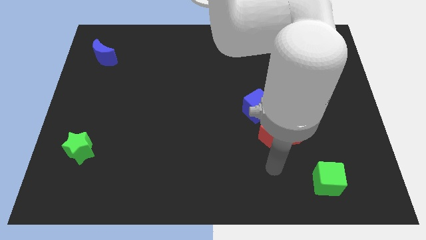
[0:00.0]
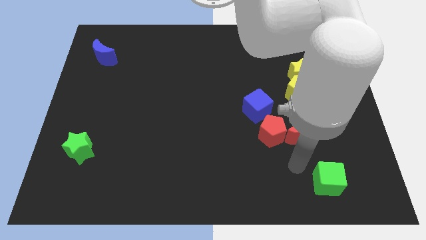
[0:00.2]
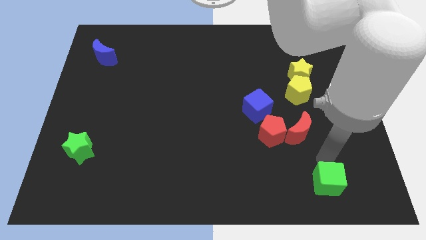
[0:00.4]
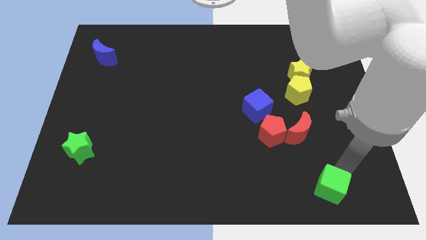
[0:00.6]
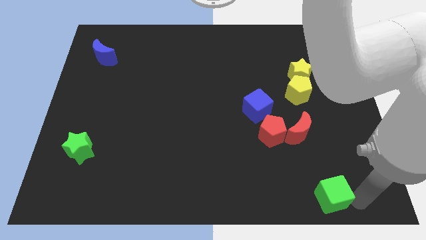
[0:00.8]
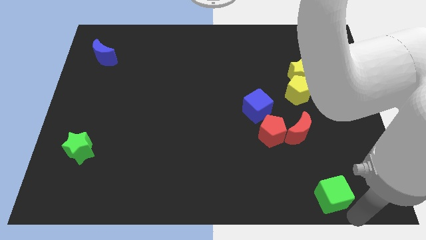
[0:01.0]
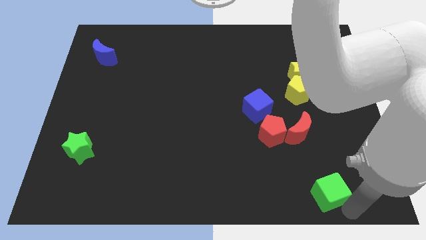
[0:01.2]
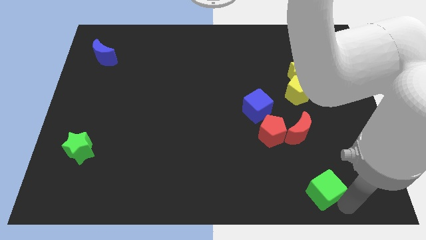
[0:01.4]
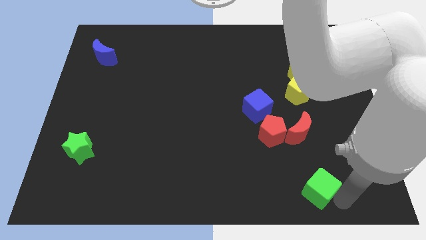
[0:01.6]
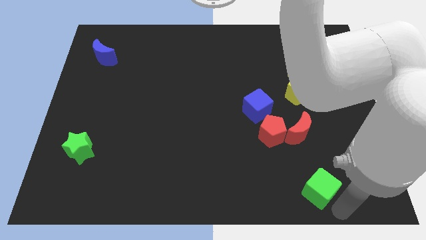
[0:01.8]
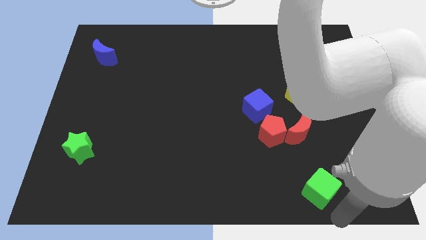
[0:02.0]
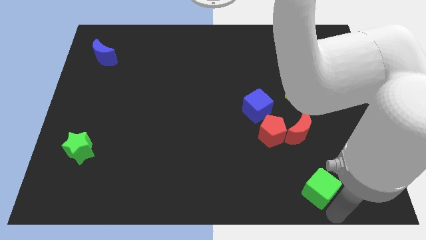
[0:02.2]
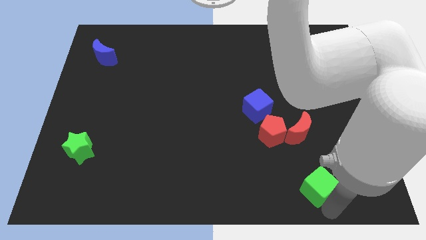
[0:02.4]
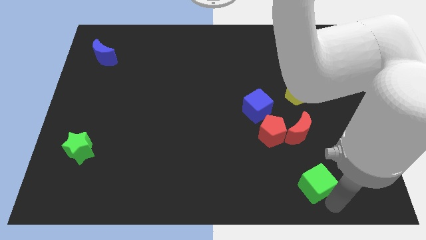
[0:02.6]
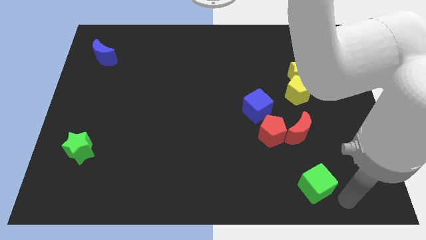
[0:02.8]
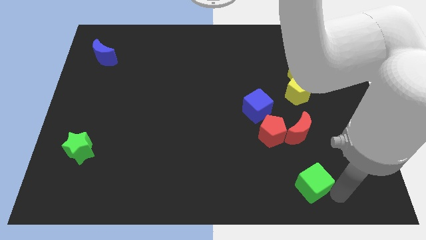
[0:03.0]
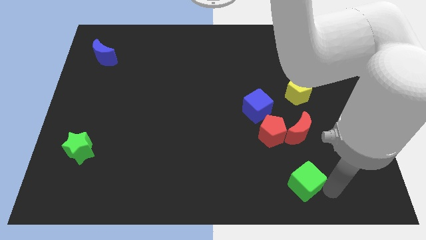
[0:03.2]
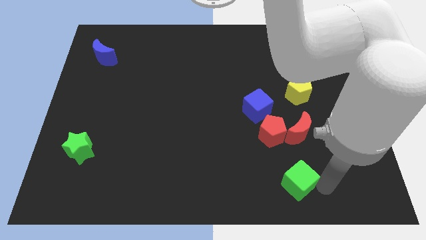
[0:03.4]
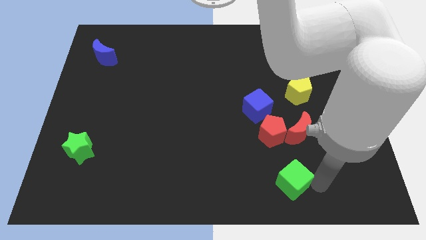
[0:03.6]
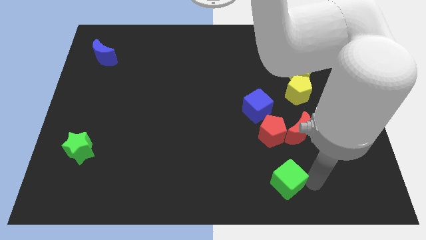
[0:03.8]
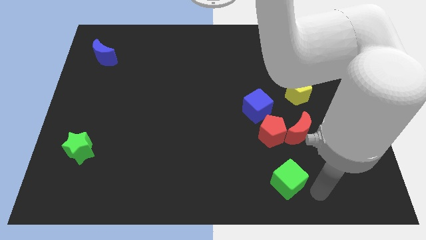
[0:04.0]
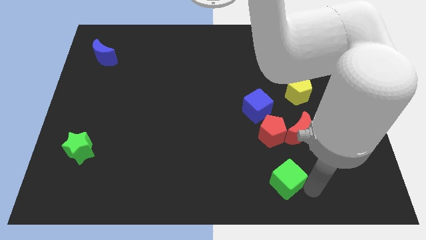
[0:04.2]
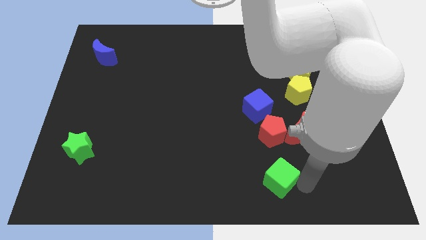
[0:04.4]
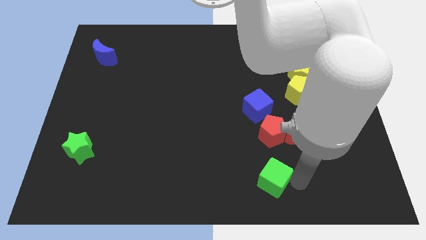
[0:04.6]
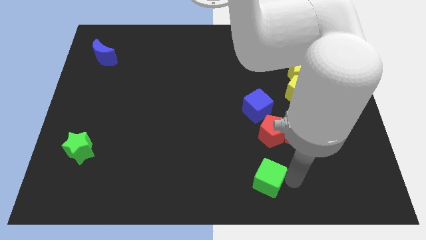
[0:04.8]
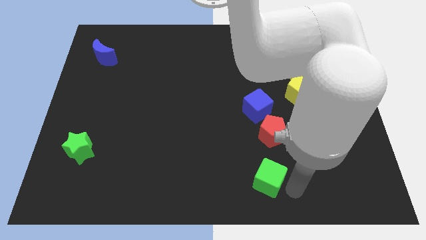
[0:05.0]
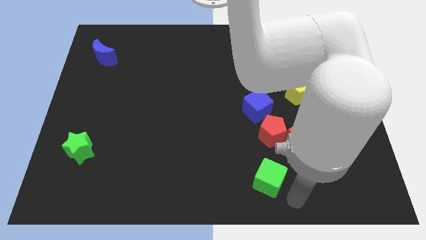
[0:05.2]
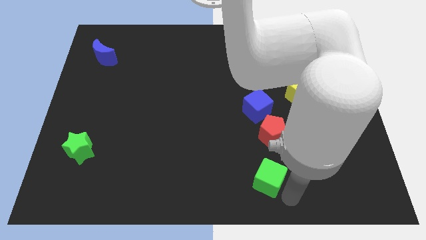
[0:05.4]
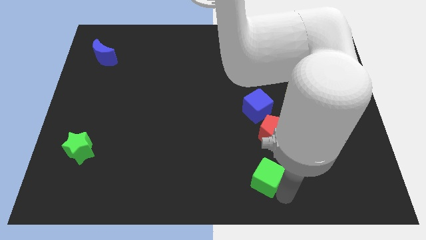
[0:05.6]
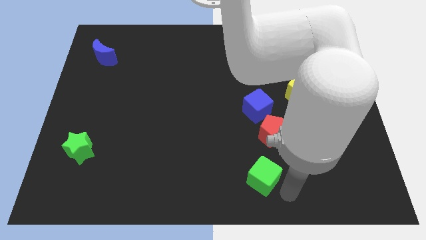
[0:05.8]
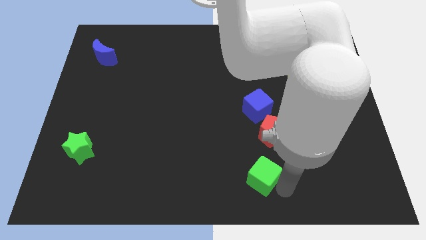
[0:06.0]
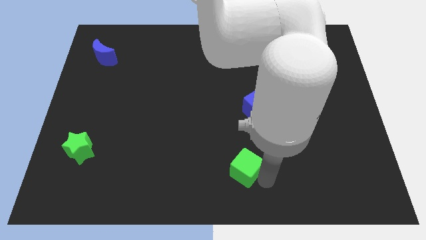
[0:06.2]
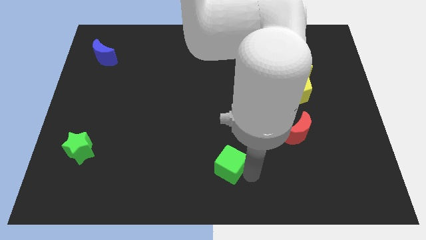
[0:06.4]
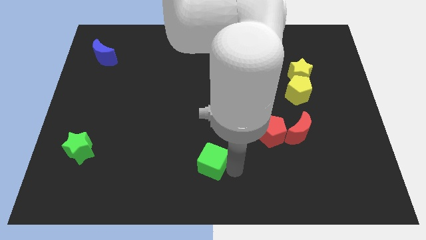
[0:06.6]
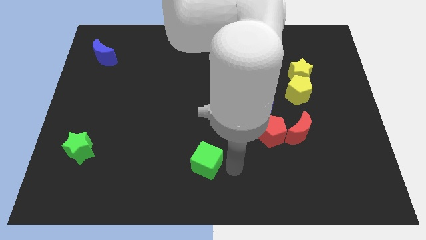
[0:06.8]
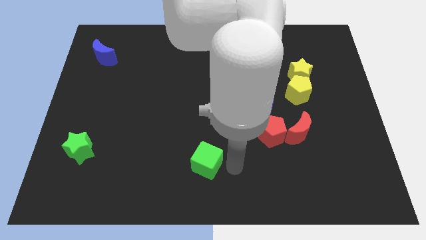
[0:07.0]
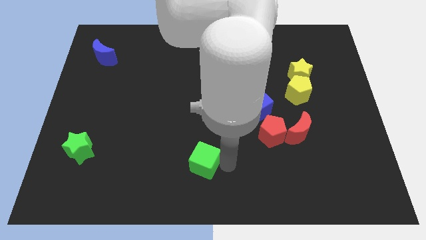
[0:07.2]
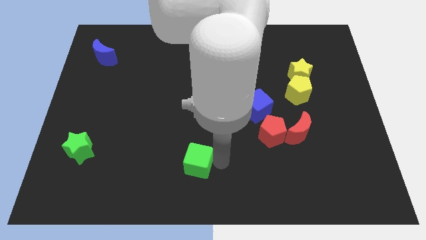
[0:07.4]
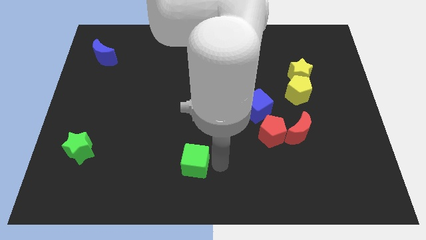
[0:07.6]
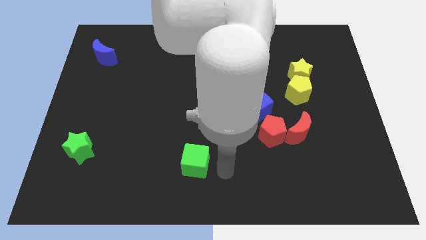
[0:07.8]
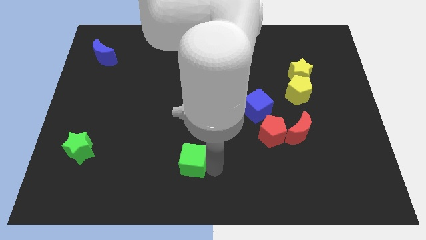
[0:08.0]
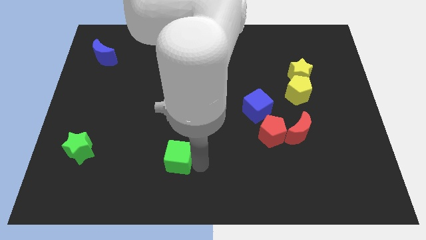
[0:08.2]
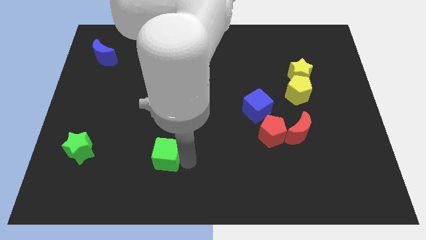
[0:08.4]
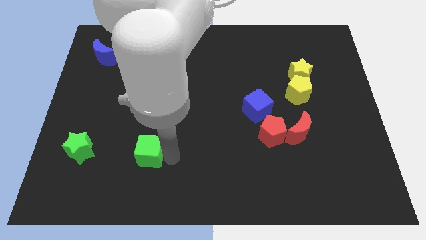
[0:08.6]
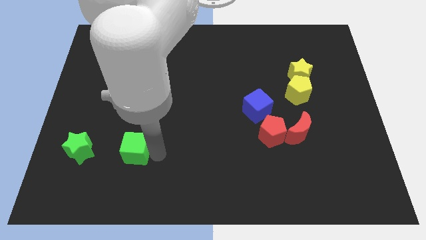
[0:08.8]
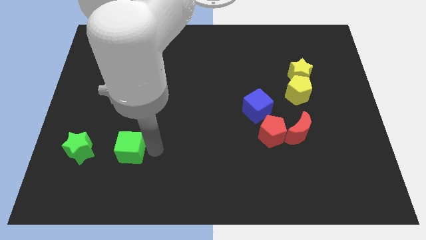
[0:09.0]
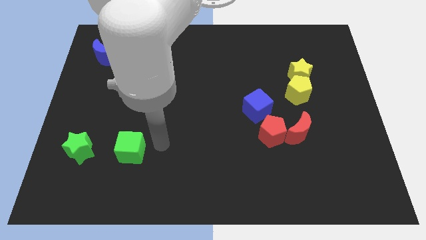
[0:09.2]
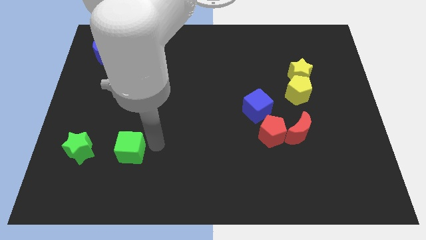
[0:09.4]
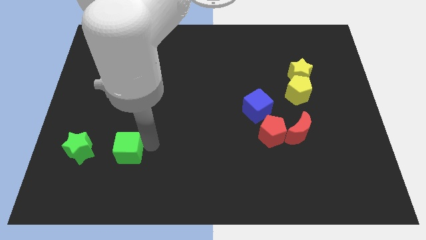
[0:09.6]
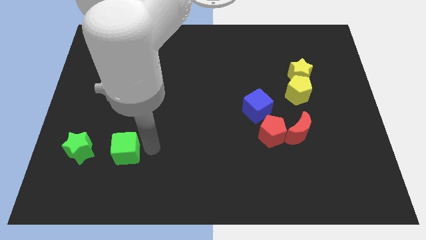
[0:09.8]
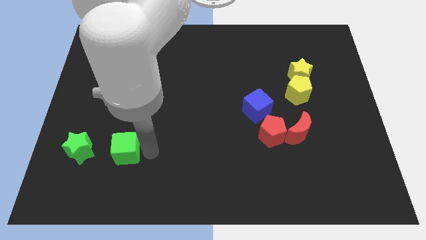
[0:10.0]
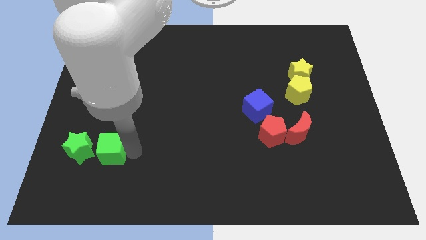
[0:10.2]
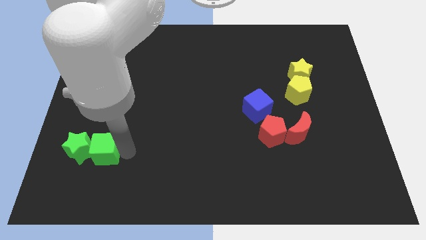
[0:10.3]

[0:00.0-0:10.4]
move the green cube to the green star

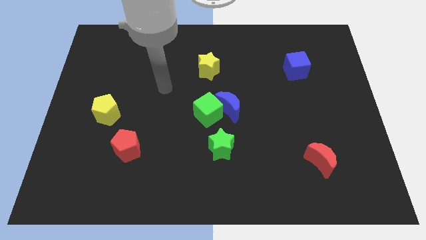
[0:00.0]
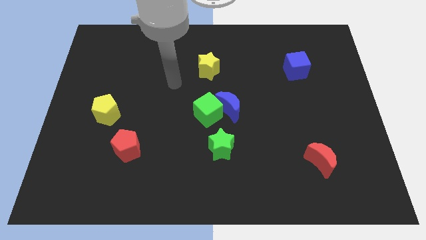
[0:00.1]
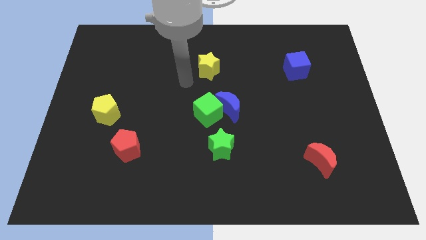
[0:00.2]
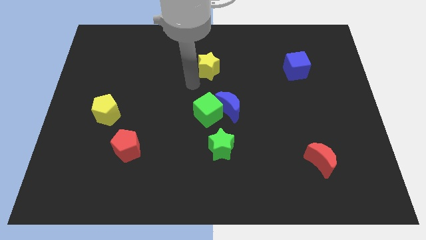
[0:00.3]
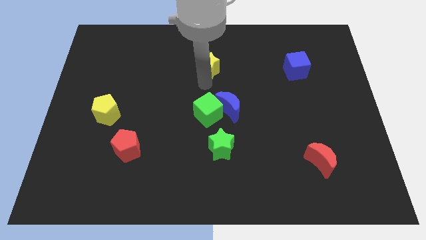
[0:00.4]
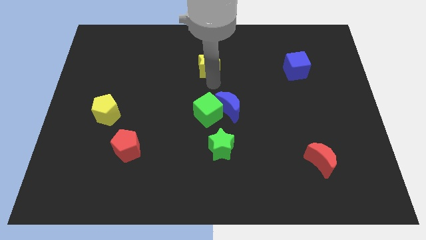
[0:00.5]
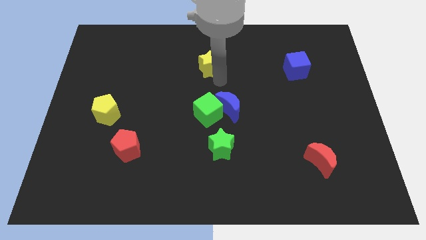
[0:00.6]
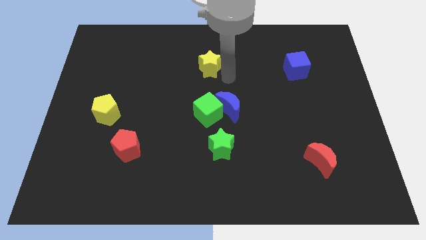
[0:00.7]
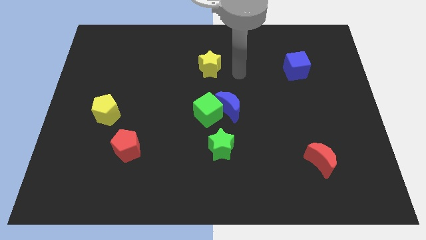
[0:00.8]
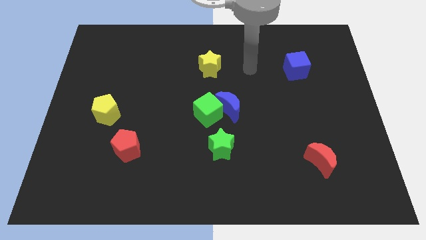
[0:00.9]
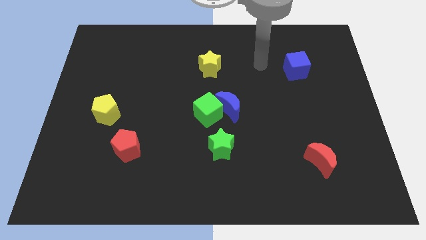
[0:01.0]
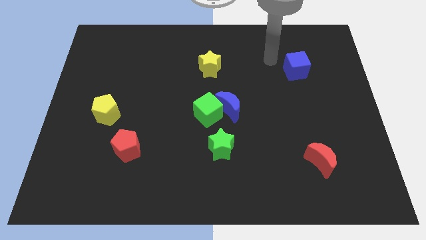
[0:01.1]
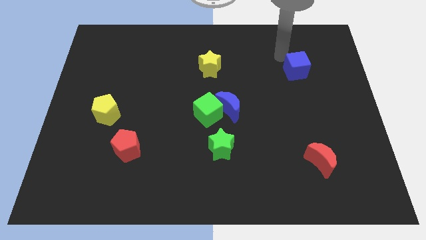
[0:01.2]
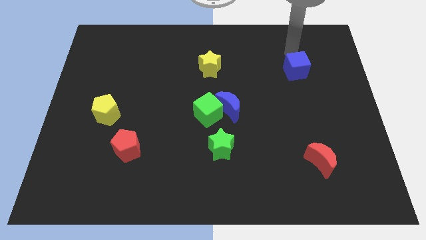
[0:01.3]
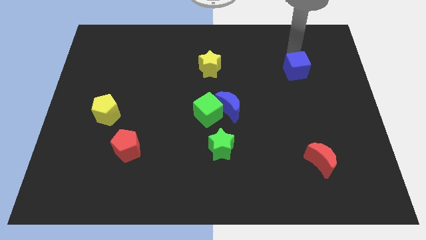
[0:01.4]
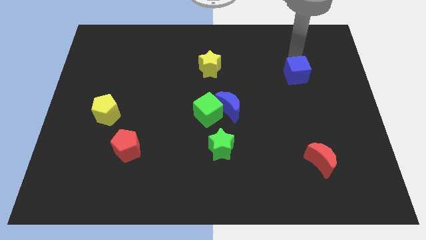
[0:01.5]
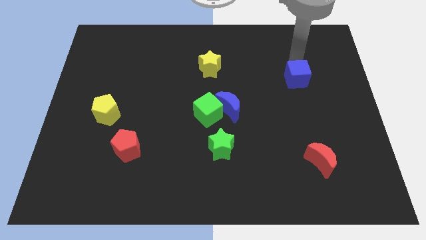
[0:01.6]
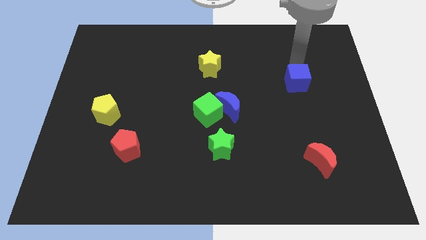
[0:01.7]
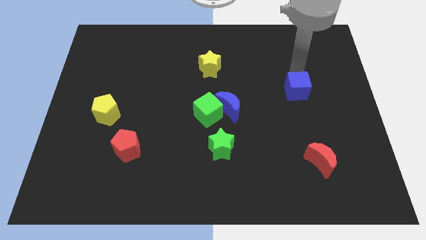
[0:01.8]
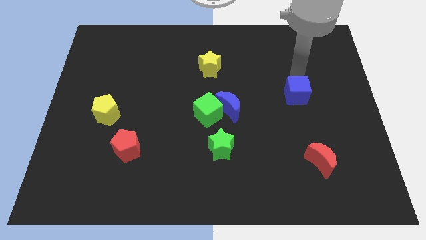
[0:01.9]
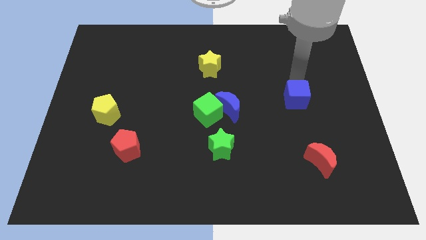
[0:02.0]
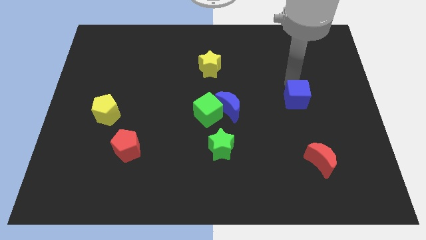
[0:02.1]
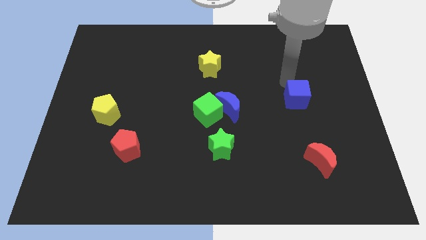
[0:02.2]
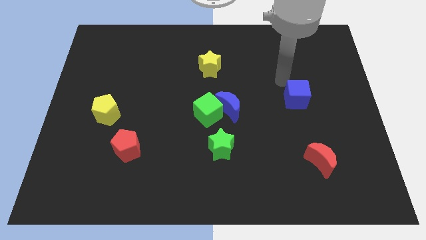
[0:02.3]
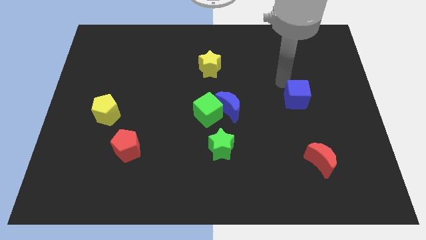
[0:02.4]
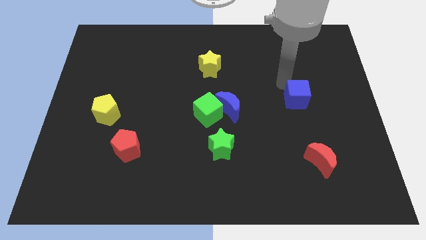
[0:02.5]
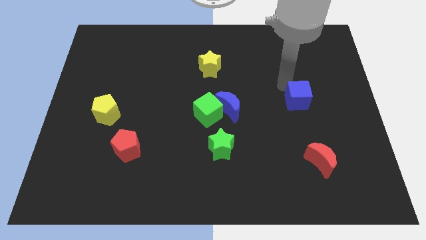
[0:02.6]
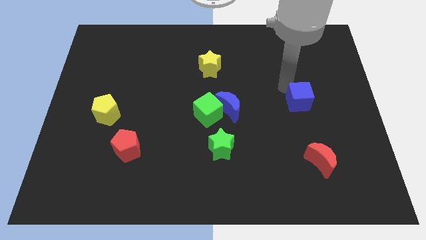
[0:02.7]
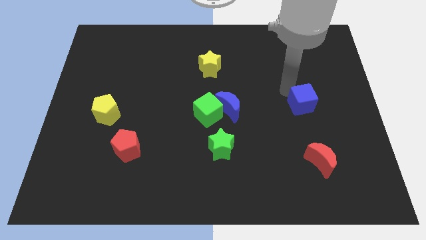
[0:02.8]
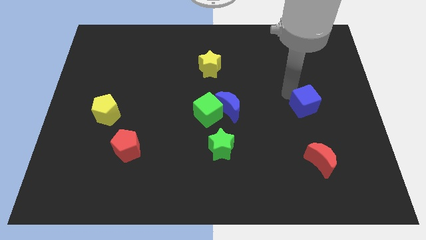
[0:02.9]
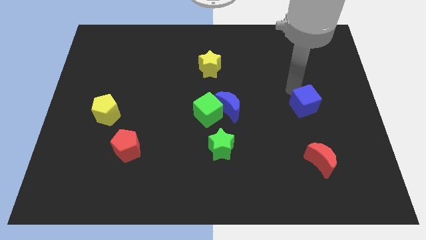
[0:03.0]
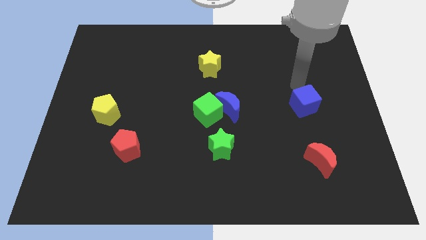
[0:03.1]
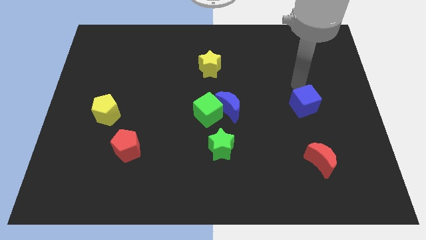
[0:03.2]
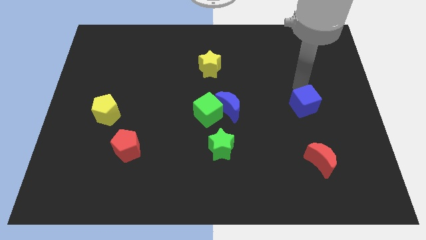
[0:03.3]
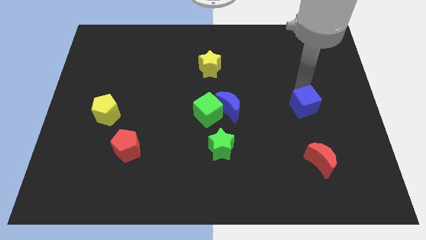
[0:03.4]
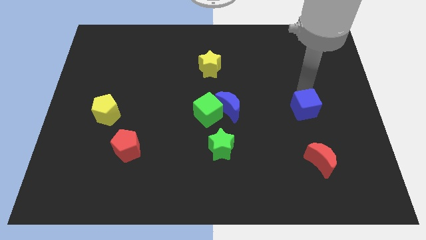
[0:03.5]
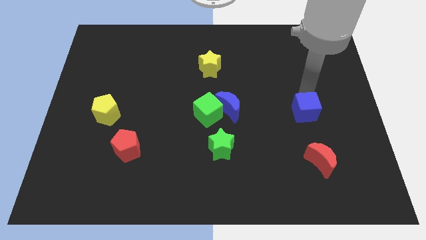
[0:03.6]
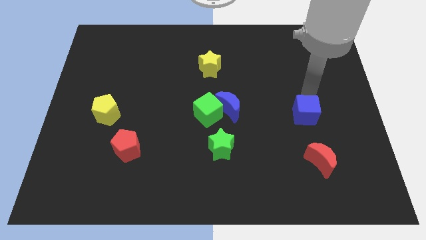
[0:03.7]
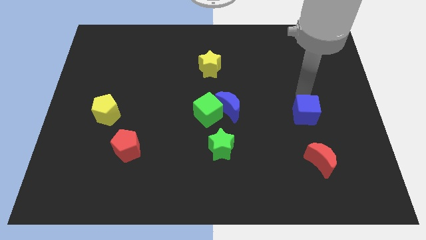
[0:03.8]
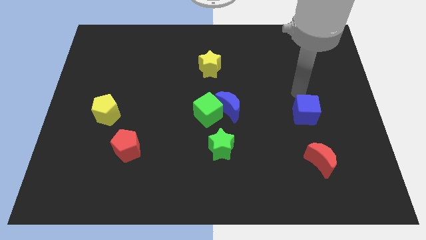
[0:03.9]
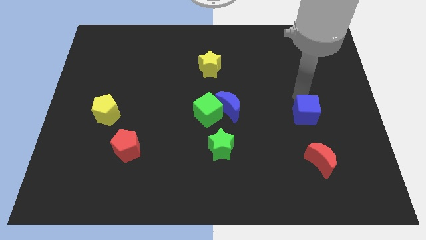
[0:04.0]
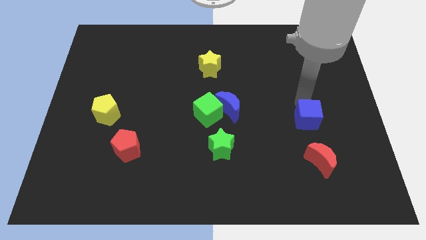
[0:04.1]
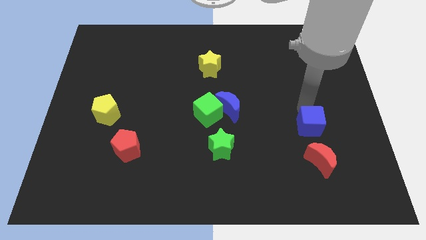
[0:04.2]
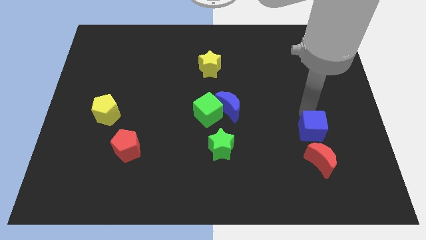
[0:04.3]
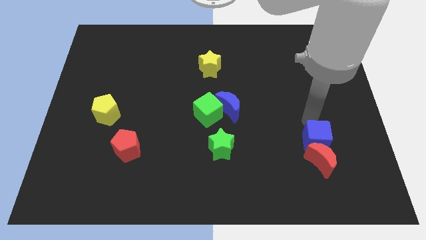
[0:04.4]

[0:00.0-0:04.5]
put the blue cube towards the red moon
